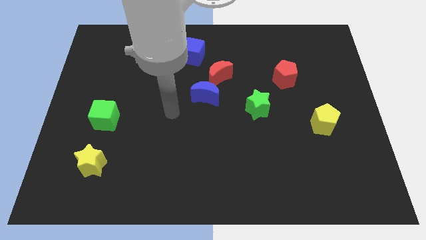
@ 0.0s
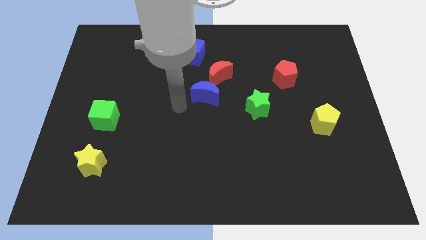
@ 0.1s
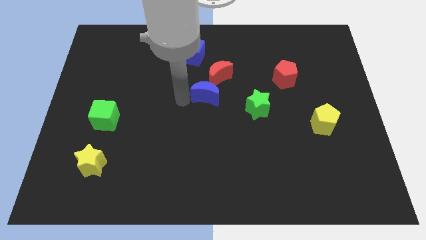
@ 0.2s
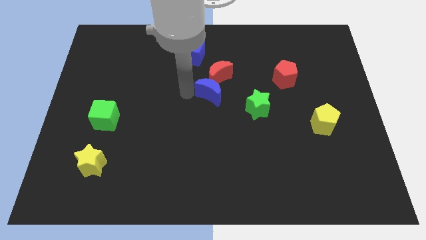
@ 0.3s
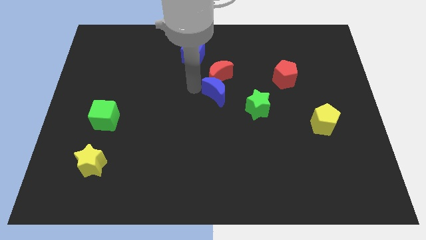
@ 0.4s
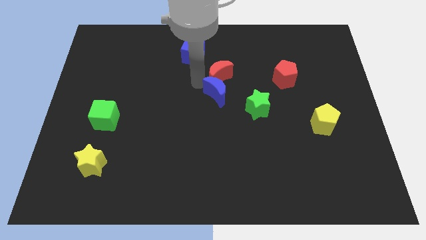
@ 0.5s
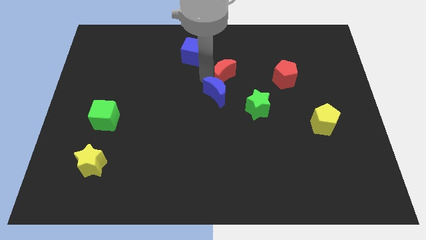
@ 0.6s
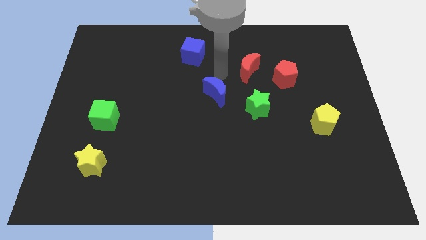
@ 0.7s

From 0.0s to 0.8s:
separate the blue moon from the red moon

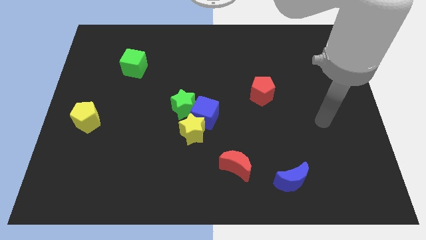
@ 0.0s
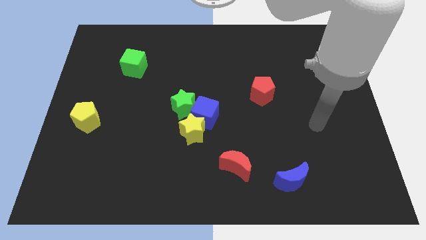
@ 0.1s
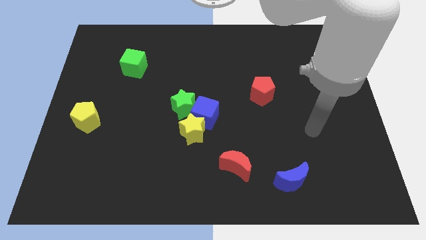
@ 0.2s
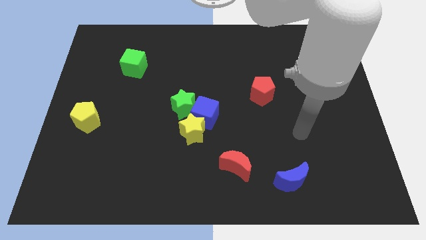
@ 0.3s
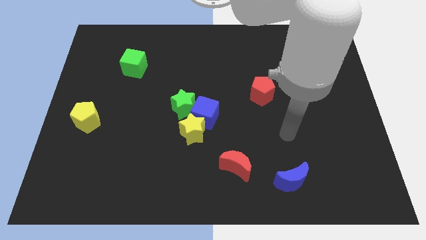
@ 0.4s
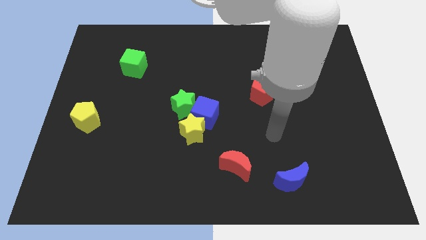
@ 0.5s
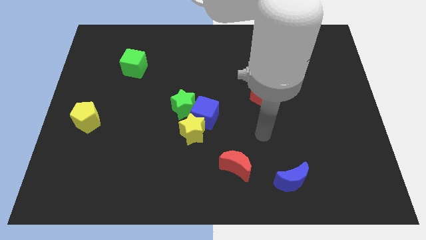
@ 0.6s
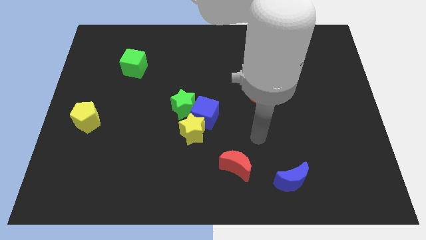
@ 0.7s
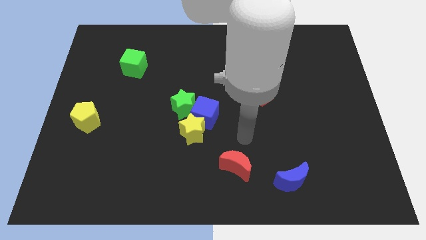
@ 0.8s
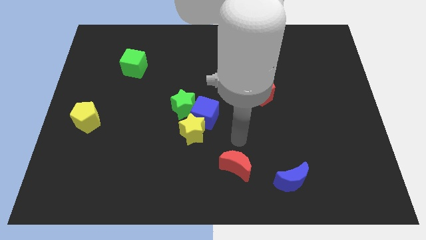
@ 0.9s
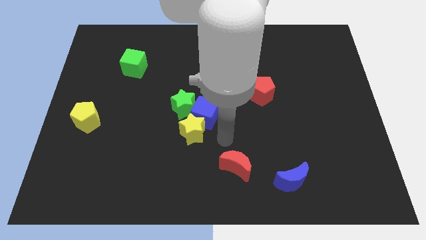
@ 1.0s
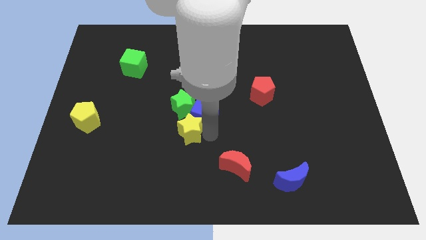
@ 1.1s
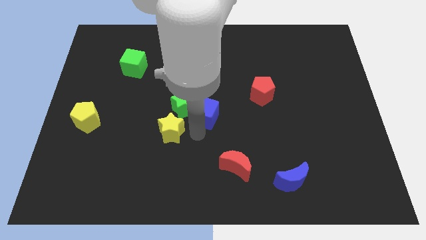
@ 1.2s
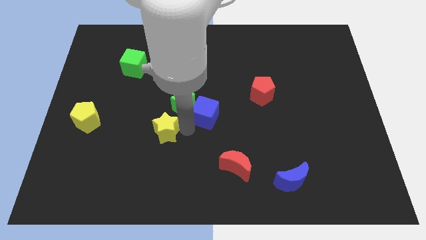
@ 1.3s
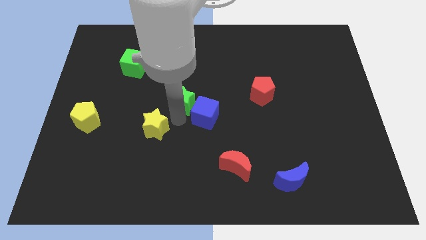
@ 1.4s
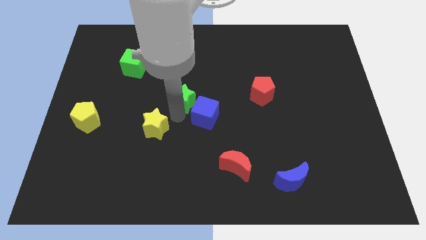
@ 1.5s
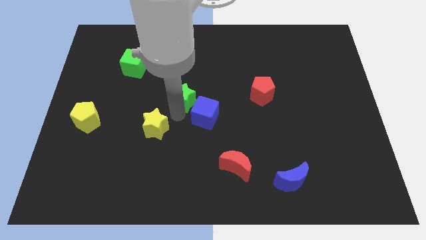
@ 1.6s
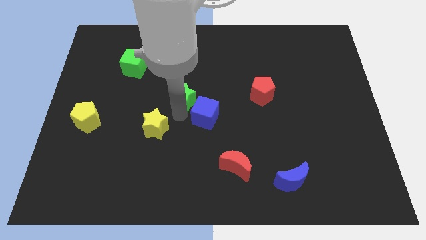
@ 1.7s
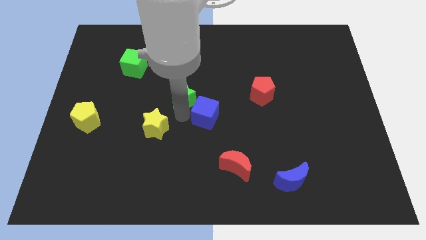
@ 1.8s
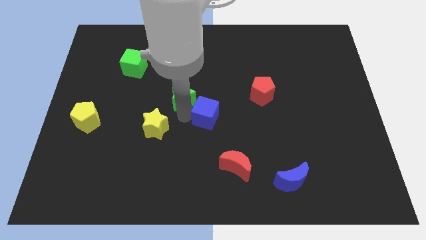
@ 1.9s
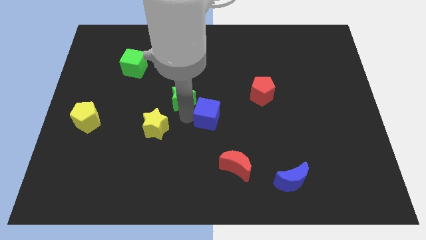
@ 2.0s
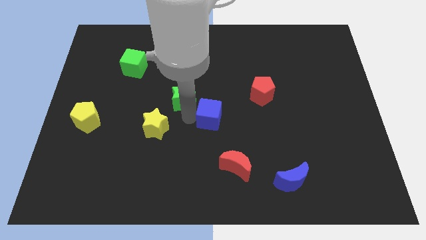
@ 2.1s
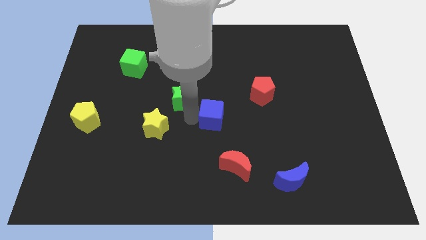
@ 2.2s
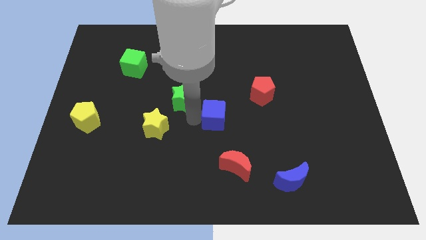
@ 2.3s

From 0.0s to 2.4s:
pull the blue cube apart from the yellow star and green star

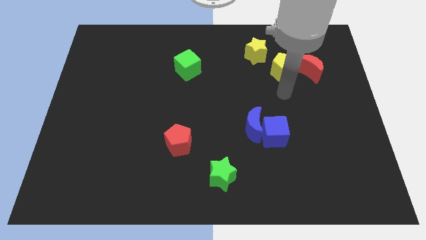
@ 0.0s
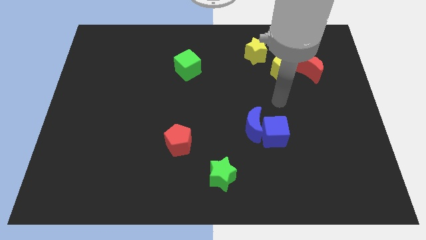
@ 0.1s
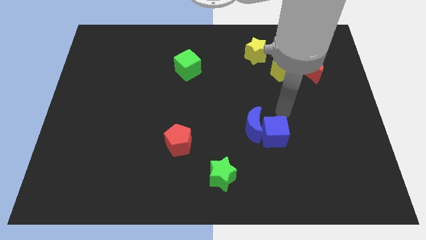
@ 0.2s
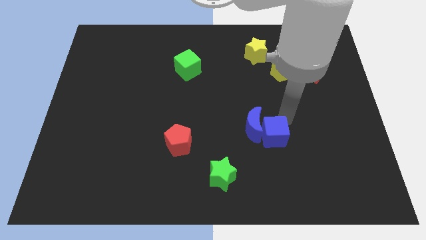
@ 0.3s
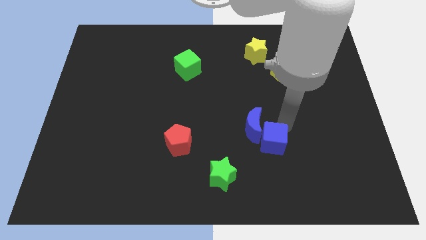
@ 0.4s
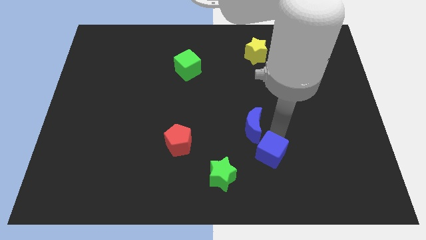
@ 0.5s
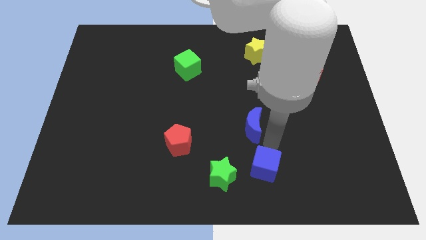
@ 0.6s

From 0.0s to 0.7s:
move the blue moon away from the blue cube

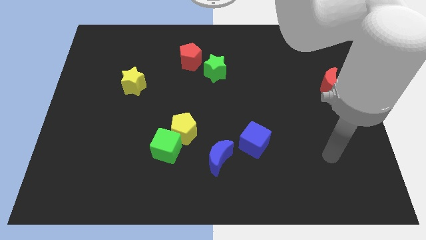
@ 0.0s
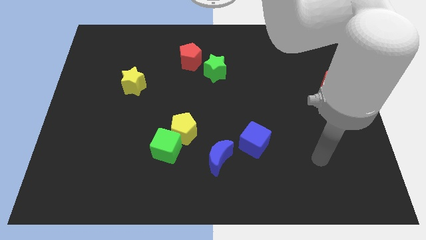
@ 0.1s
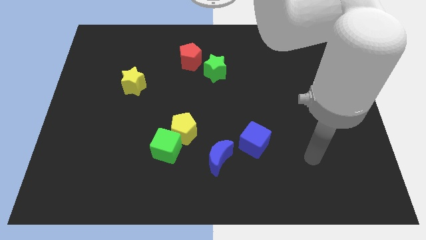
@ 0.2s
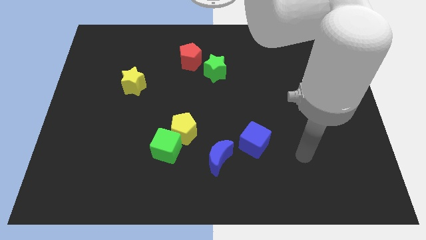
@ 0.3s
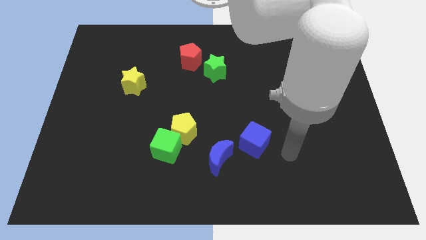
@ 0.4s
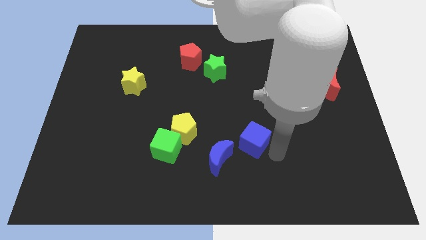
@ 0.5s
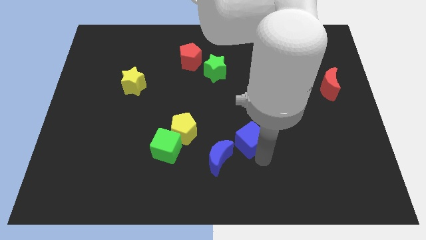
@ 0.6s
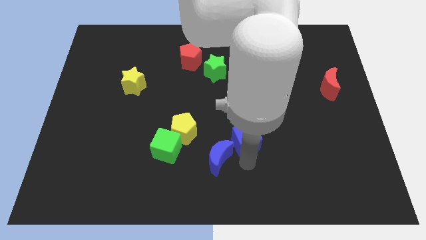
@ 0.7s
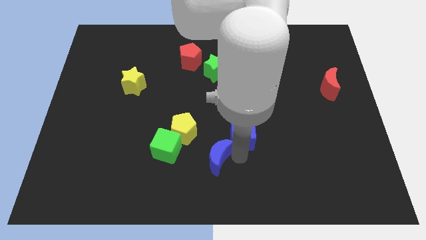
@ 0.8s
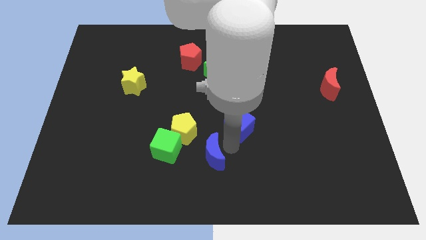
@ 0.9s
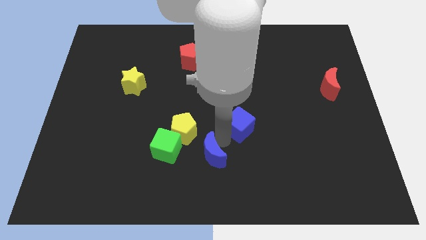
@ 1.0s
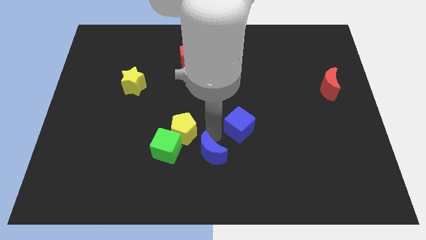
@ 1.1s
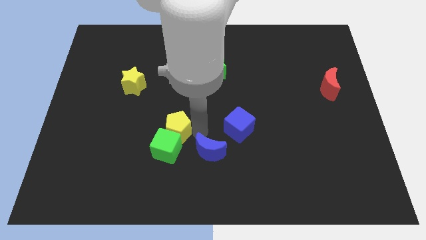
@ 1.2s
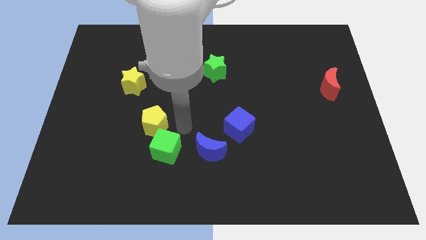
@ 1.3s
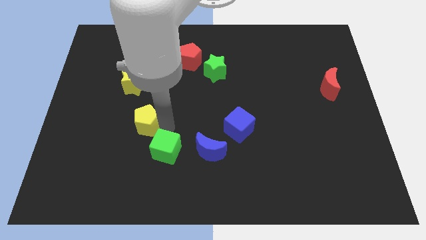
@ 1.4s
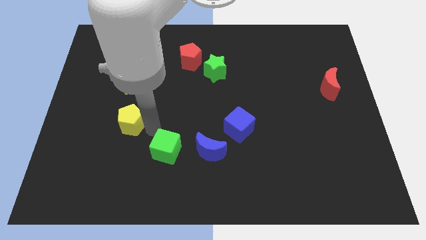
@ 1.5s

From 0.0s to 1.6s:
move the green cube away from the yellow pentagon

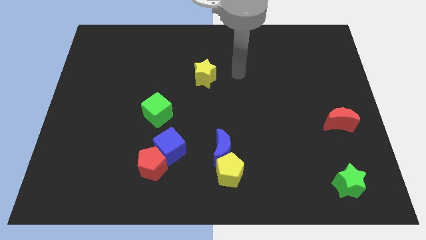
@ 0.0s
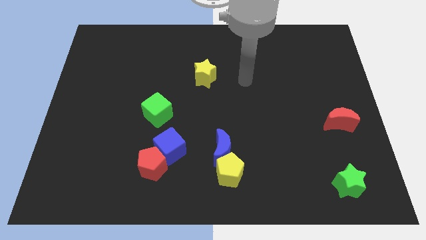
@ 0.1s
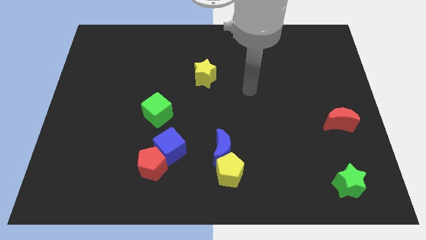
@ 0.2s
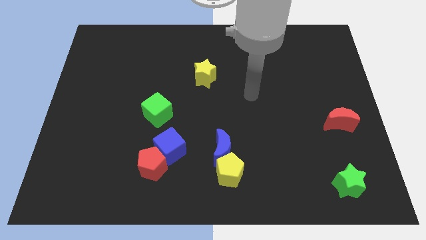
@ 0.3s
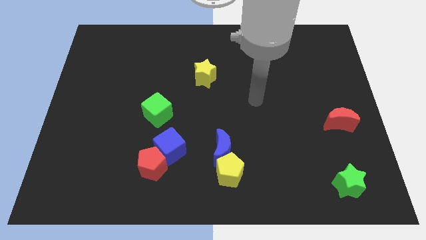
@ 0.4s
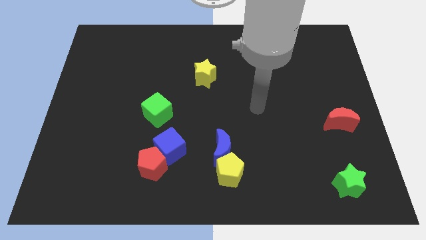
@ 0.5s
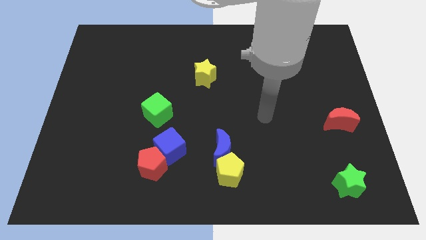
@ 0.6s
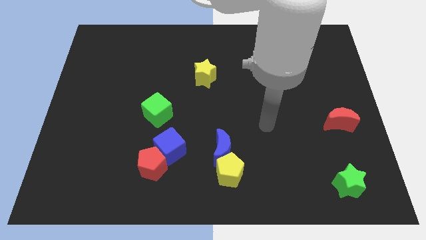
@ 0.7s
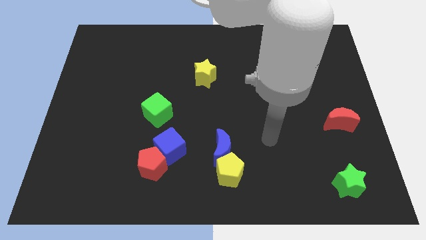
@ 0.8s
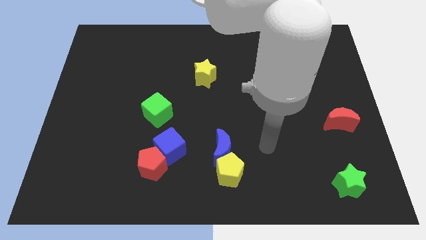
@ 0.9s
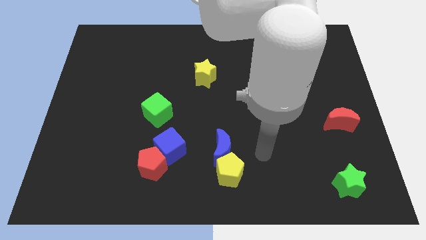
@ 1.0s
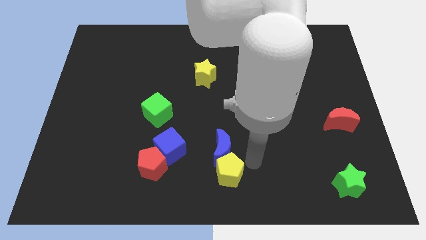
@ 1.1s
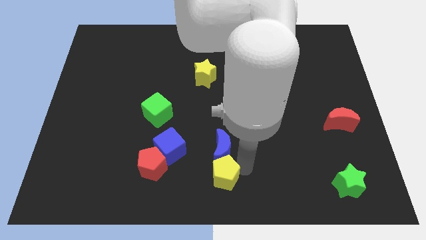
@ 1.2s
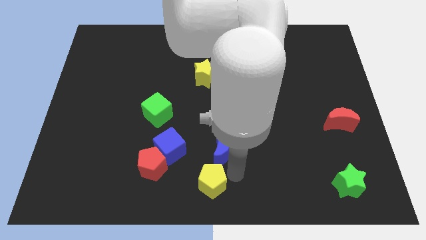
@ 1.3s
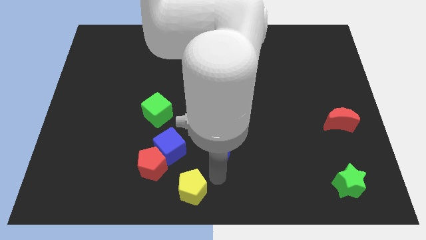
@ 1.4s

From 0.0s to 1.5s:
move the blue moon away from the yellow pentagon

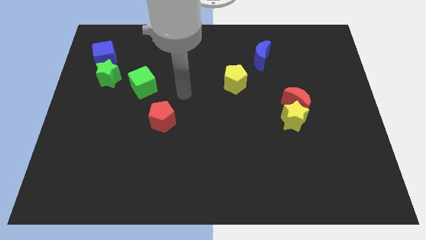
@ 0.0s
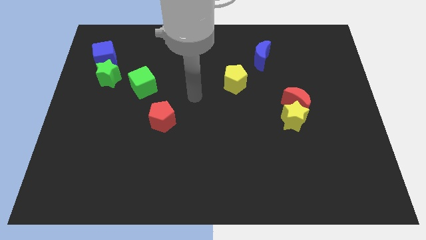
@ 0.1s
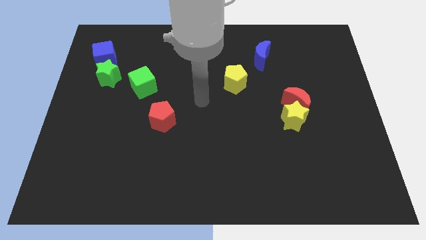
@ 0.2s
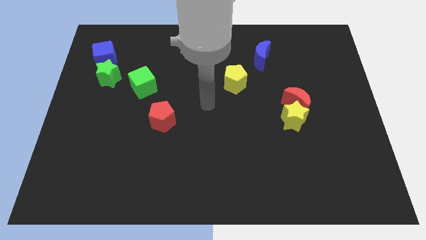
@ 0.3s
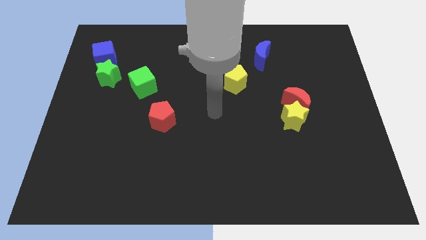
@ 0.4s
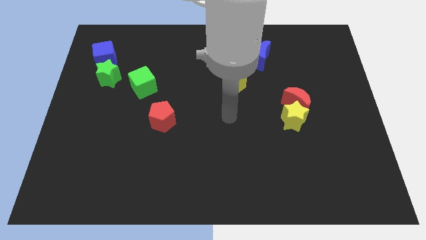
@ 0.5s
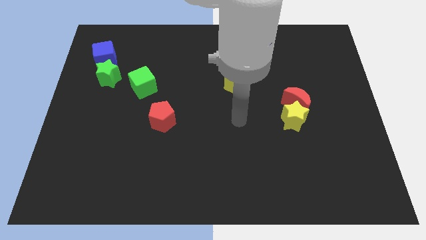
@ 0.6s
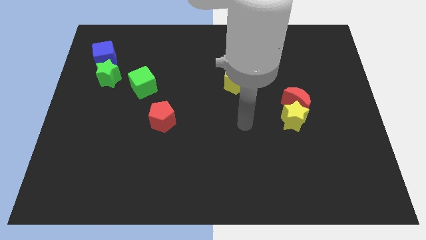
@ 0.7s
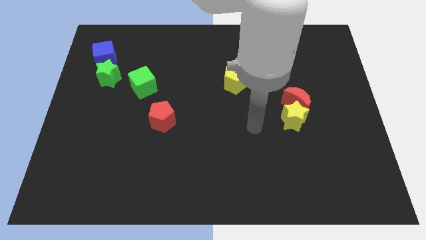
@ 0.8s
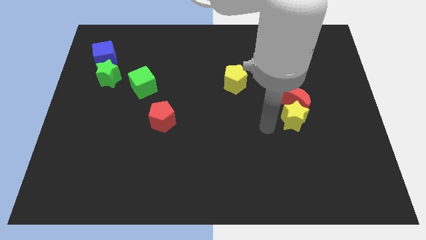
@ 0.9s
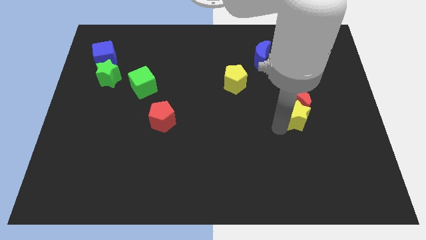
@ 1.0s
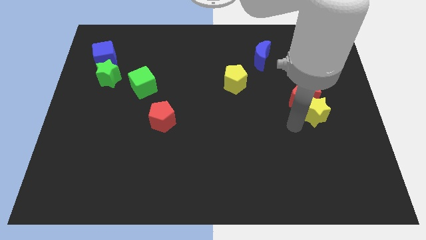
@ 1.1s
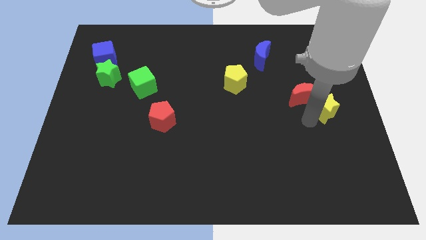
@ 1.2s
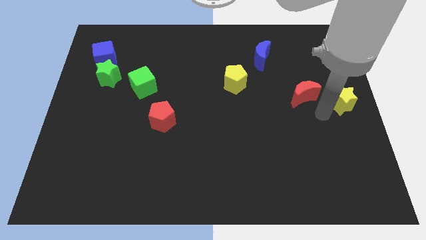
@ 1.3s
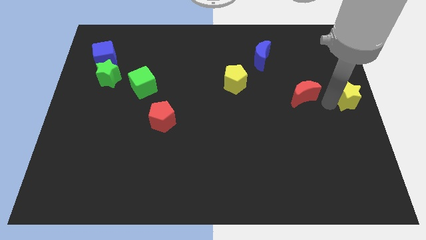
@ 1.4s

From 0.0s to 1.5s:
separate the red moon from the yellow star

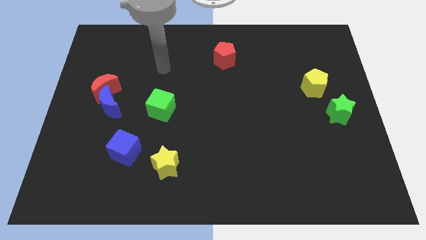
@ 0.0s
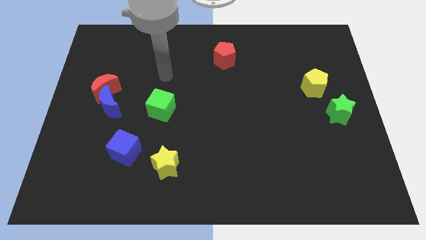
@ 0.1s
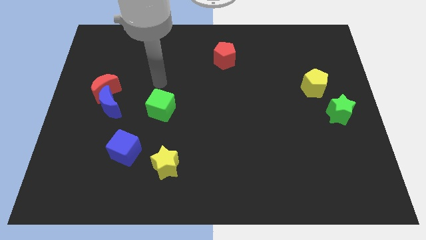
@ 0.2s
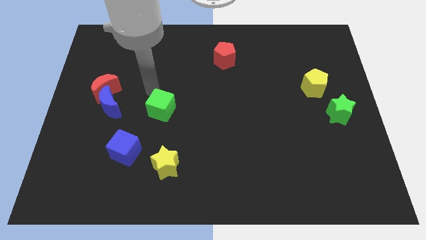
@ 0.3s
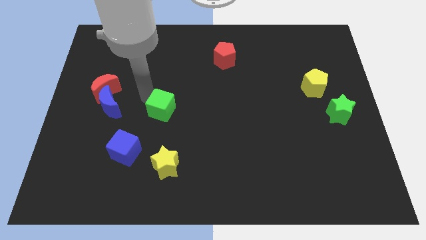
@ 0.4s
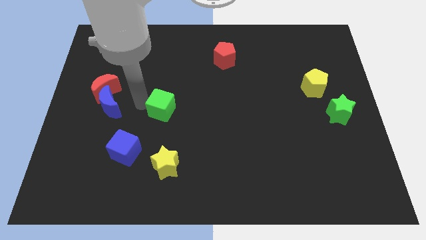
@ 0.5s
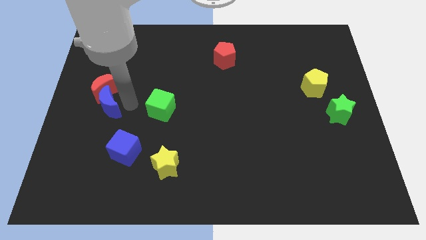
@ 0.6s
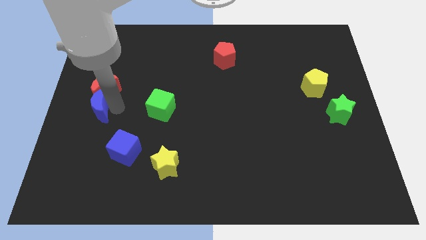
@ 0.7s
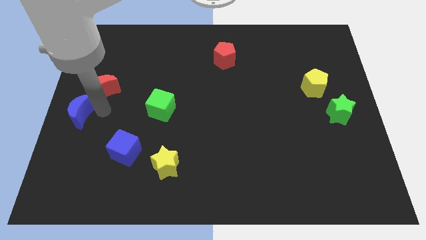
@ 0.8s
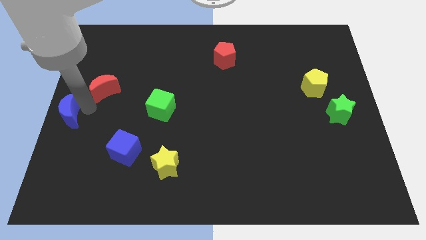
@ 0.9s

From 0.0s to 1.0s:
separate the red moon from the blue moon
